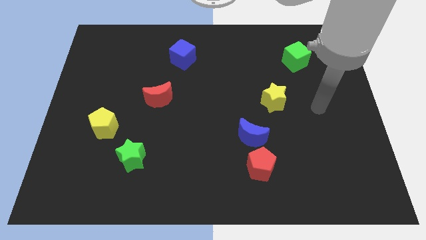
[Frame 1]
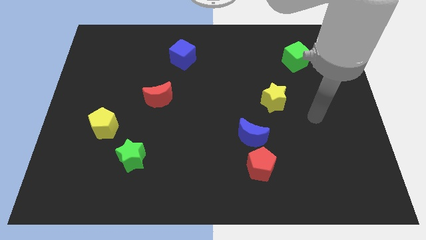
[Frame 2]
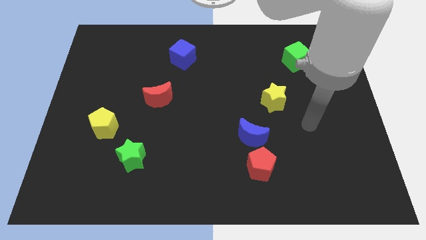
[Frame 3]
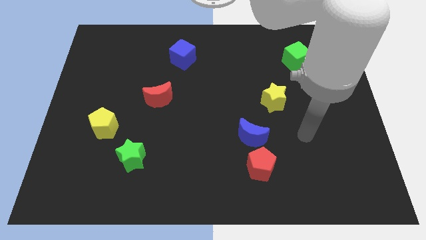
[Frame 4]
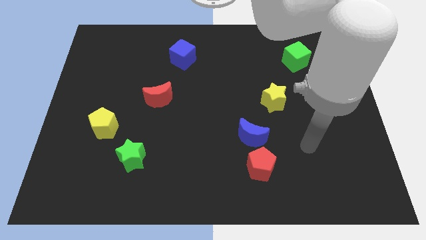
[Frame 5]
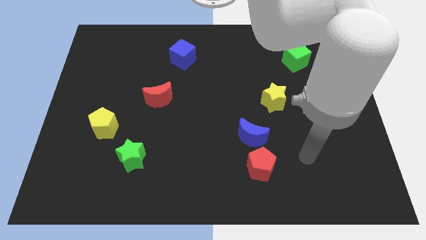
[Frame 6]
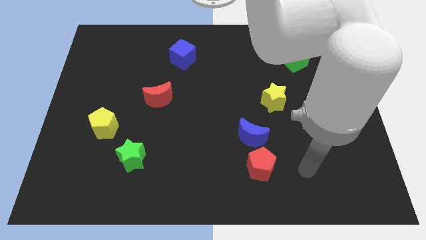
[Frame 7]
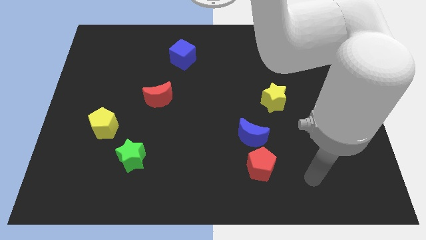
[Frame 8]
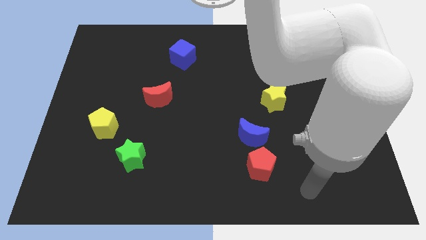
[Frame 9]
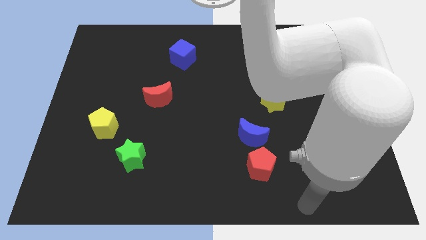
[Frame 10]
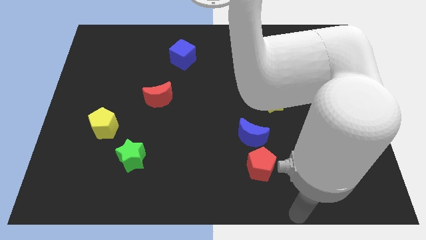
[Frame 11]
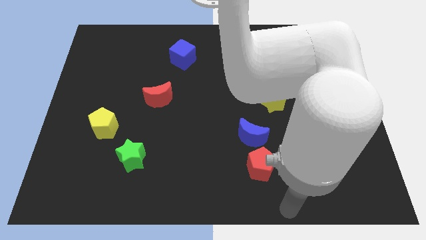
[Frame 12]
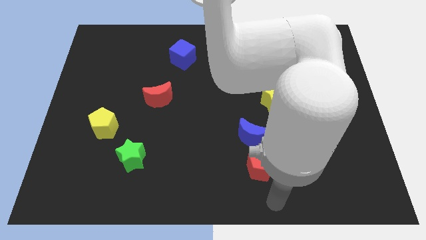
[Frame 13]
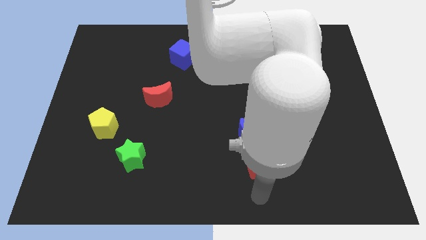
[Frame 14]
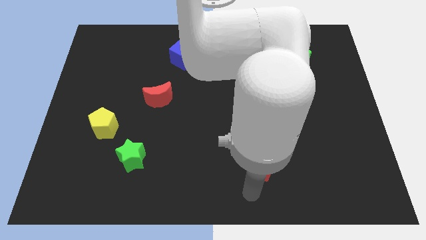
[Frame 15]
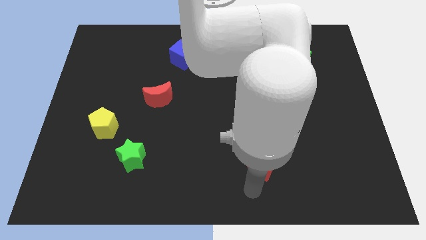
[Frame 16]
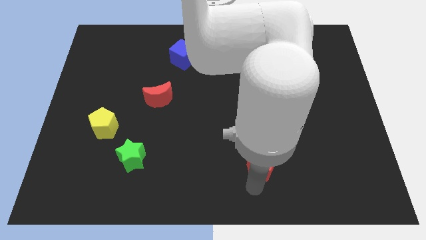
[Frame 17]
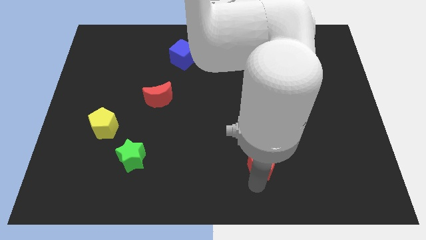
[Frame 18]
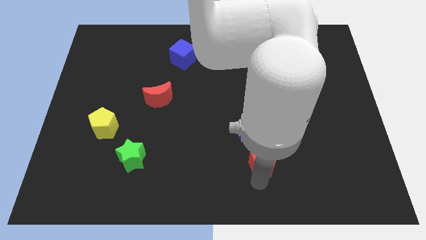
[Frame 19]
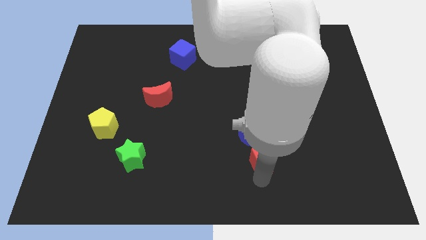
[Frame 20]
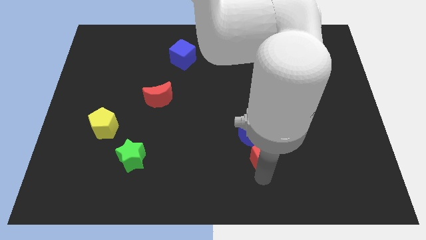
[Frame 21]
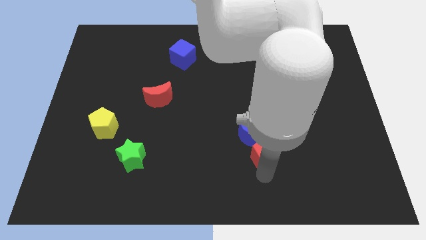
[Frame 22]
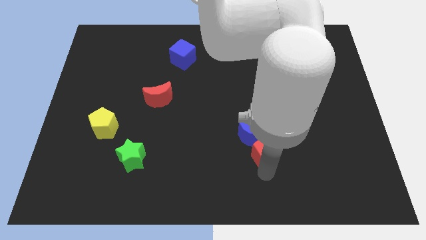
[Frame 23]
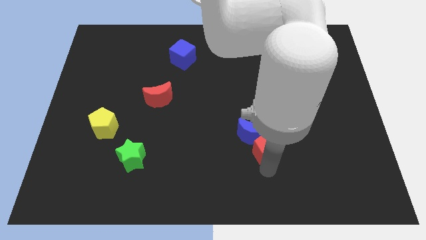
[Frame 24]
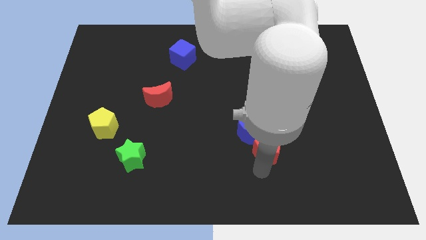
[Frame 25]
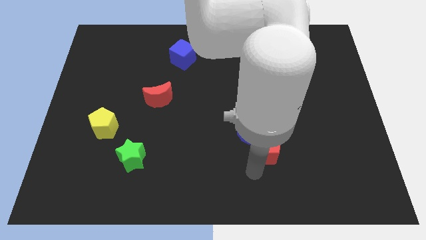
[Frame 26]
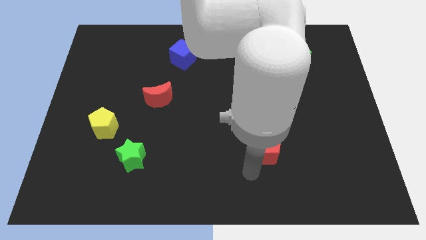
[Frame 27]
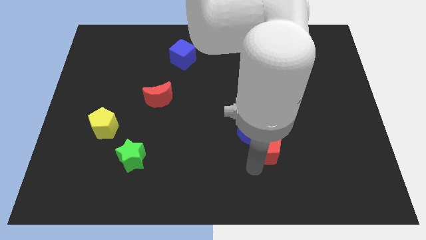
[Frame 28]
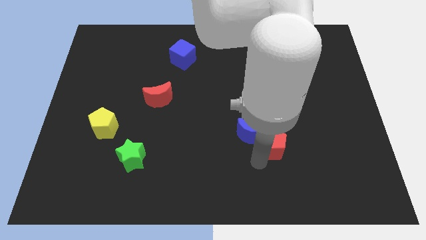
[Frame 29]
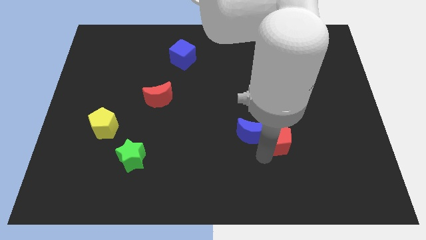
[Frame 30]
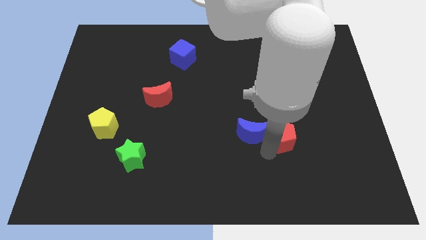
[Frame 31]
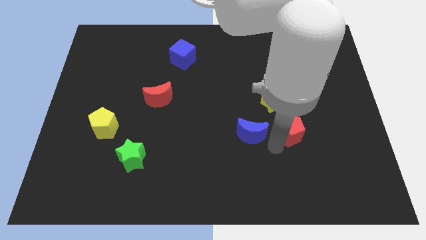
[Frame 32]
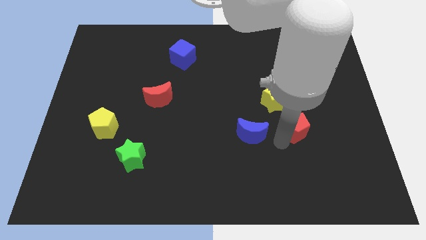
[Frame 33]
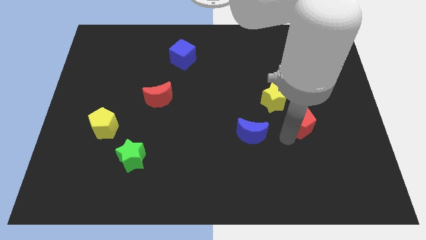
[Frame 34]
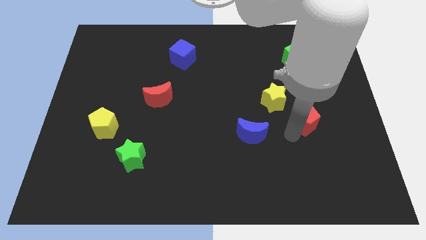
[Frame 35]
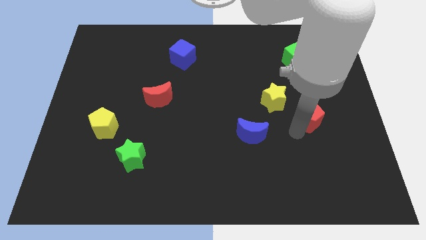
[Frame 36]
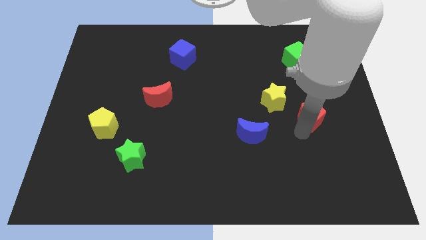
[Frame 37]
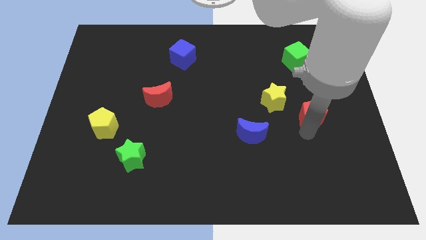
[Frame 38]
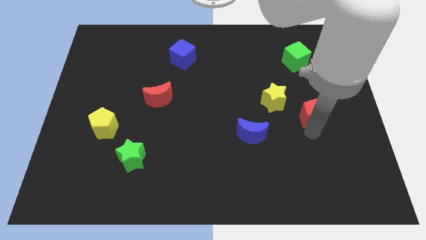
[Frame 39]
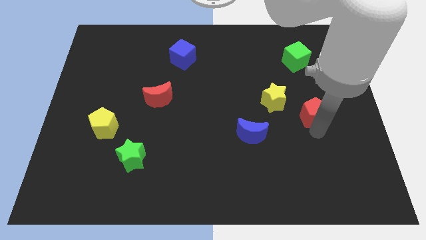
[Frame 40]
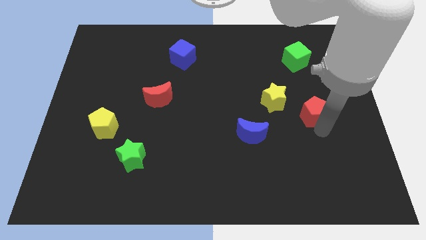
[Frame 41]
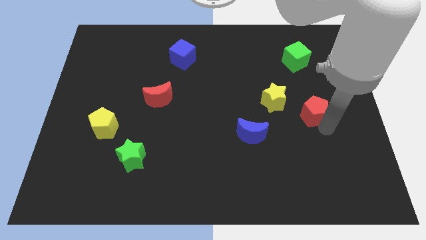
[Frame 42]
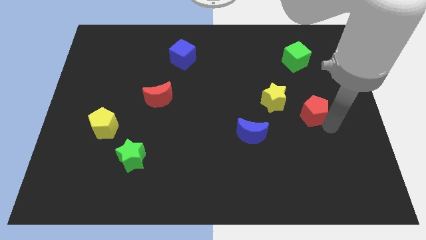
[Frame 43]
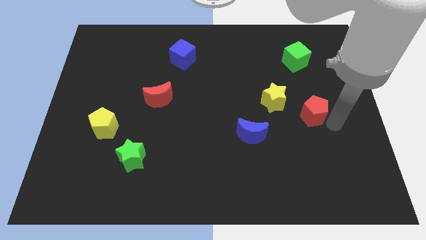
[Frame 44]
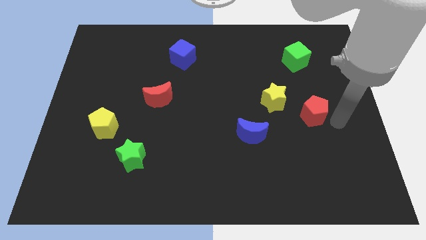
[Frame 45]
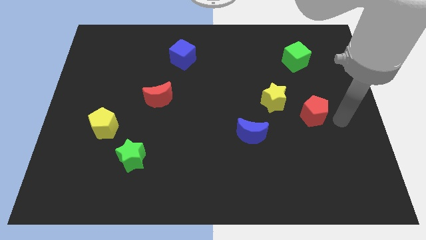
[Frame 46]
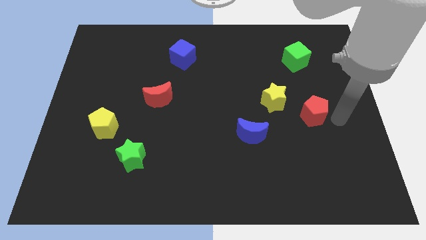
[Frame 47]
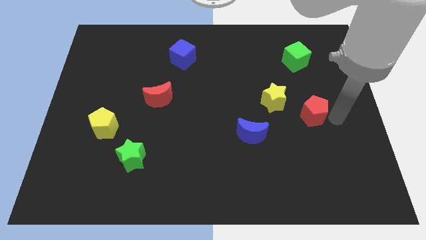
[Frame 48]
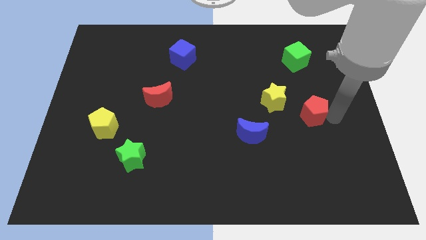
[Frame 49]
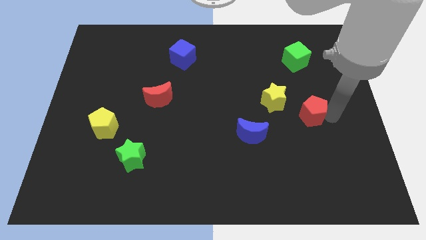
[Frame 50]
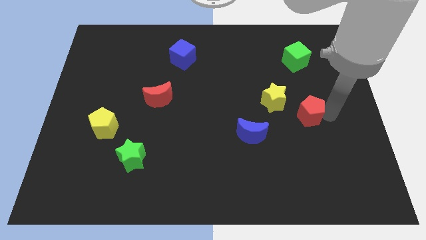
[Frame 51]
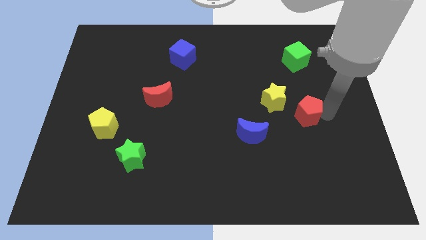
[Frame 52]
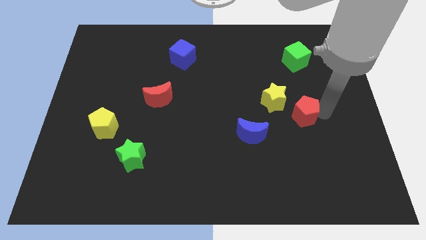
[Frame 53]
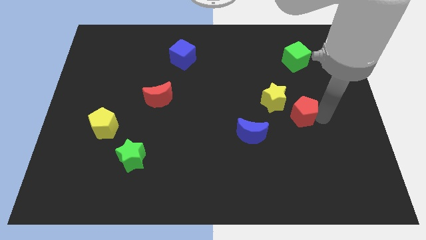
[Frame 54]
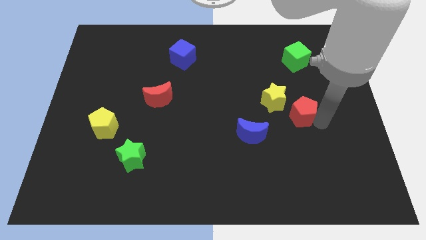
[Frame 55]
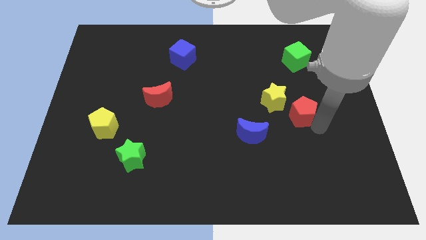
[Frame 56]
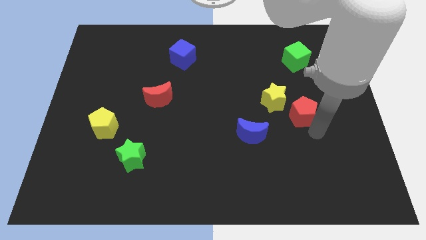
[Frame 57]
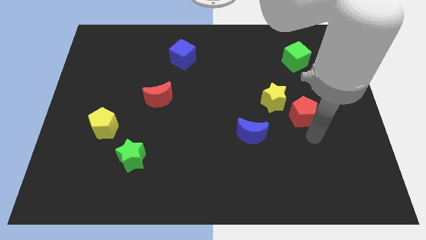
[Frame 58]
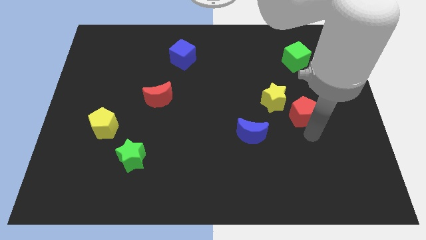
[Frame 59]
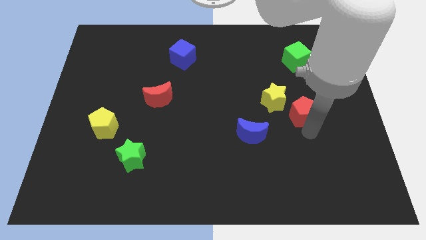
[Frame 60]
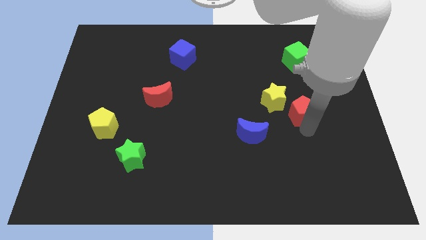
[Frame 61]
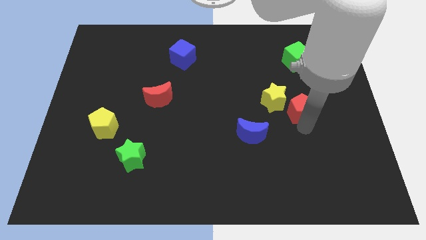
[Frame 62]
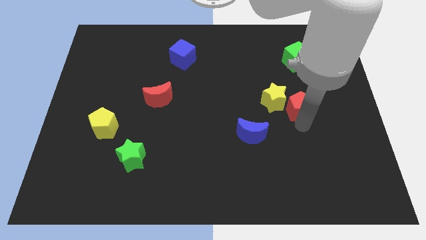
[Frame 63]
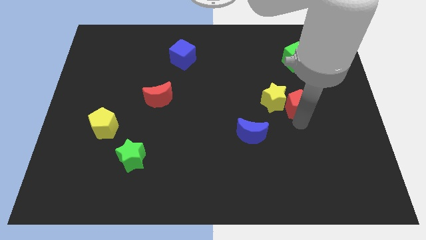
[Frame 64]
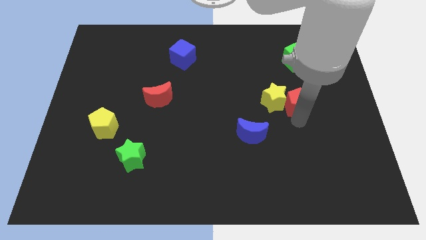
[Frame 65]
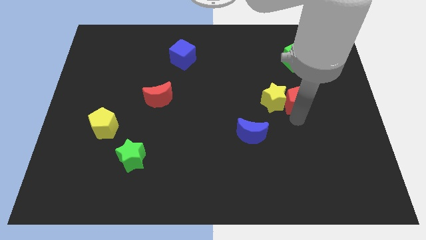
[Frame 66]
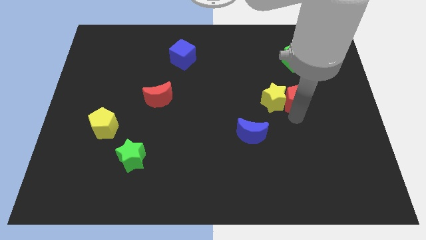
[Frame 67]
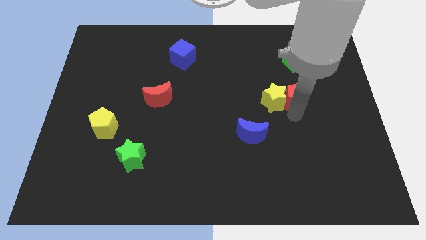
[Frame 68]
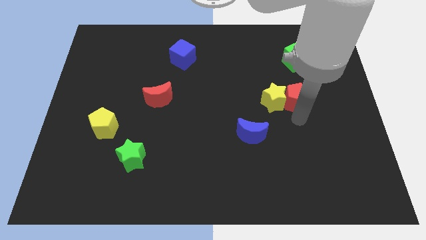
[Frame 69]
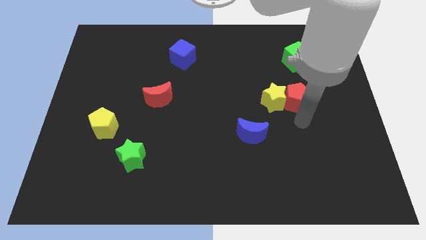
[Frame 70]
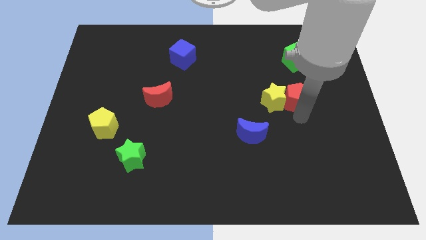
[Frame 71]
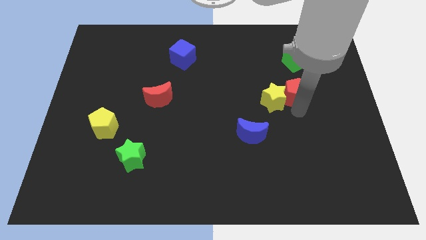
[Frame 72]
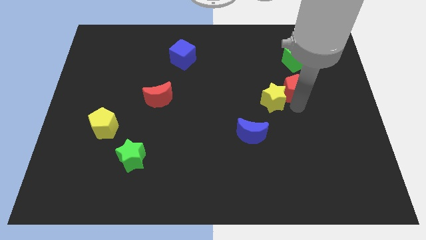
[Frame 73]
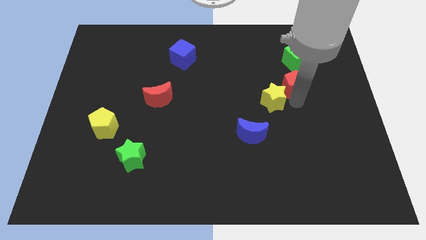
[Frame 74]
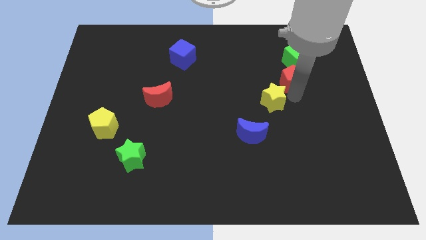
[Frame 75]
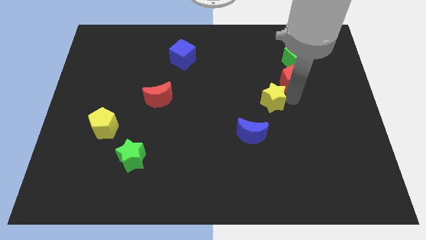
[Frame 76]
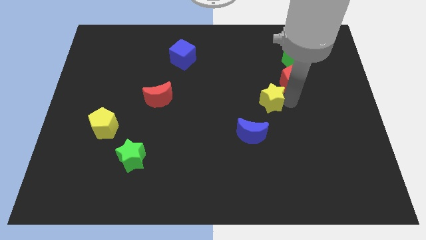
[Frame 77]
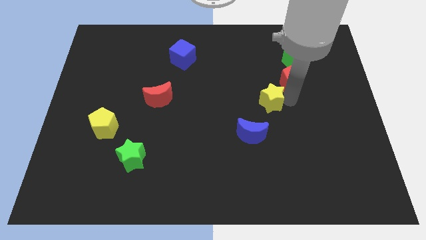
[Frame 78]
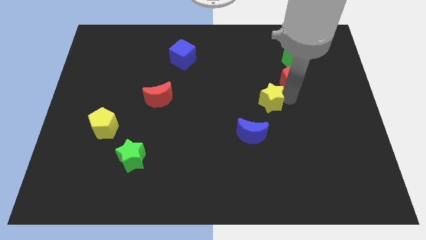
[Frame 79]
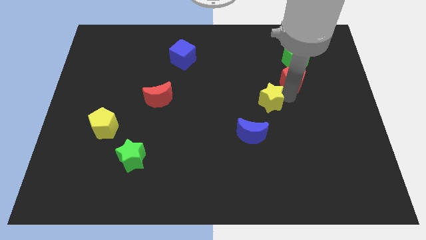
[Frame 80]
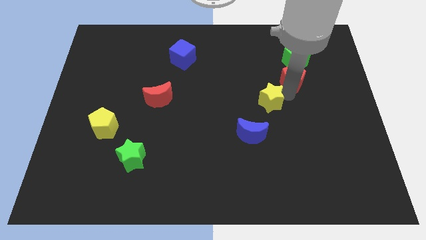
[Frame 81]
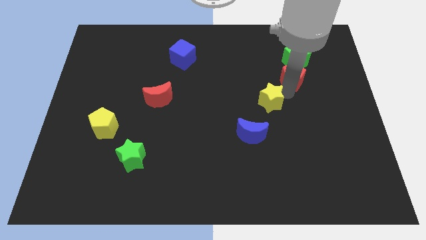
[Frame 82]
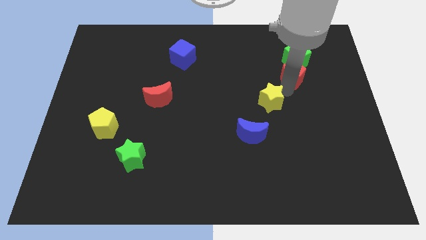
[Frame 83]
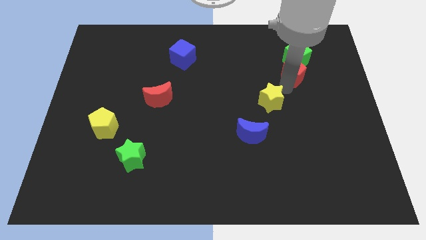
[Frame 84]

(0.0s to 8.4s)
slide the red pentagon next to the green cube
